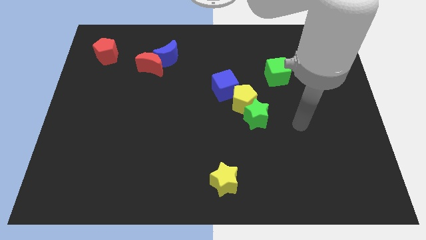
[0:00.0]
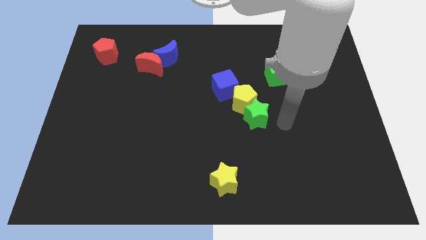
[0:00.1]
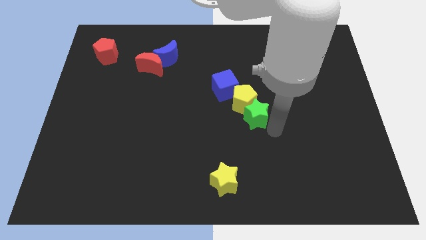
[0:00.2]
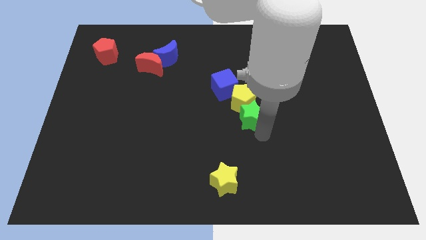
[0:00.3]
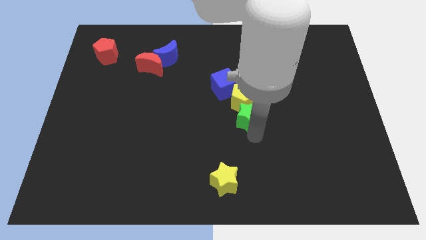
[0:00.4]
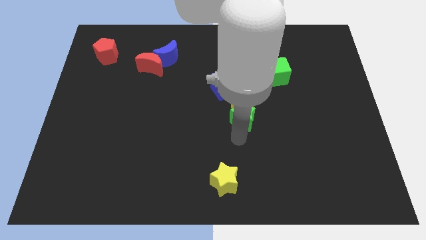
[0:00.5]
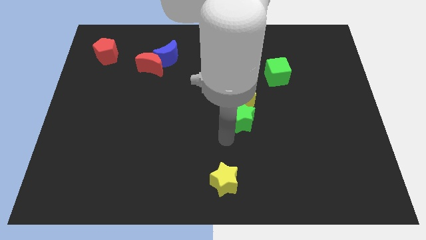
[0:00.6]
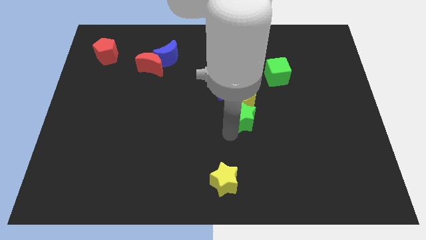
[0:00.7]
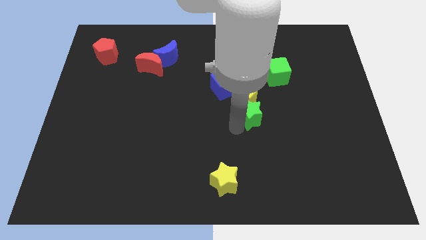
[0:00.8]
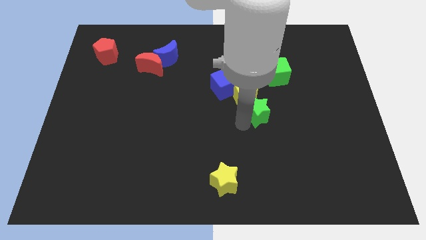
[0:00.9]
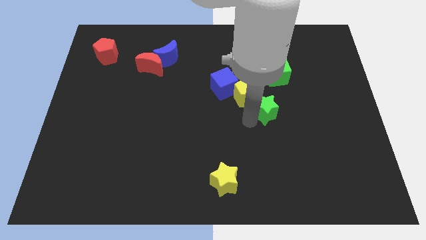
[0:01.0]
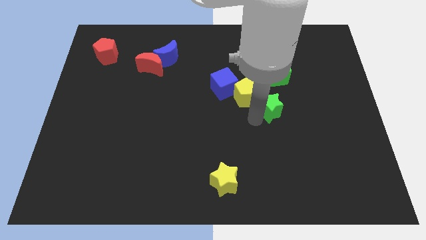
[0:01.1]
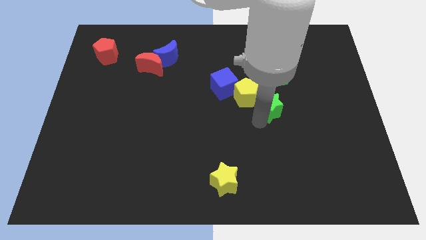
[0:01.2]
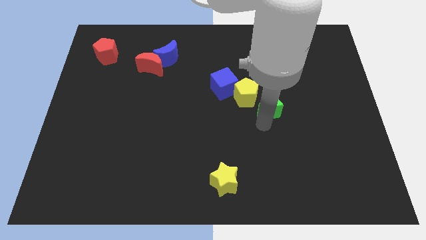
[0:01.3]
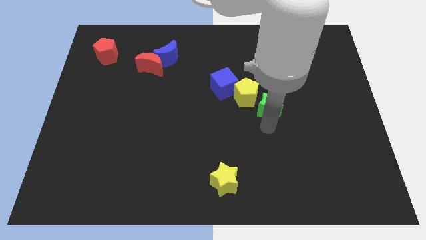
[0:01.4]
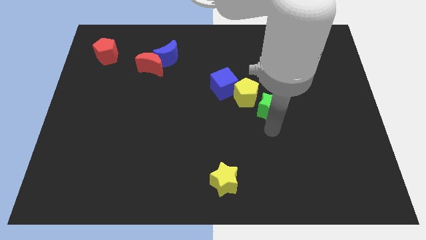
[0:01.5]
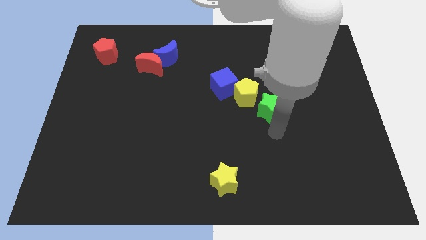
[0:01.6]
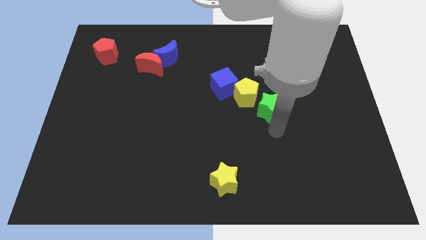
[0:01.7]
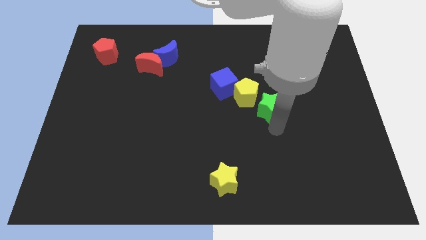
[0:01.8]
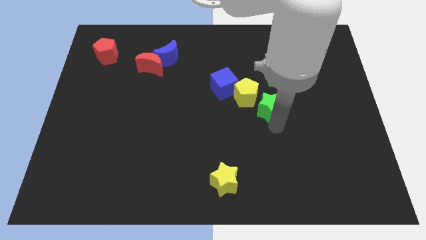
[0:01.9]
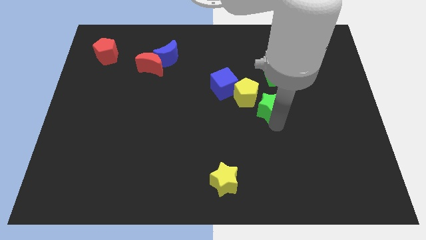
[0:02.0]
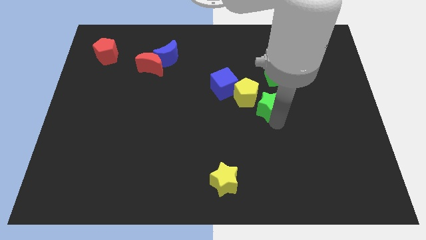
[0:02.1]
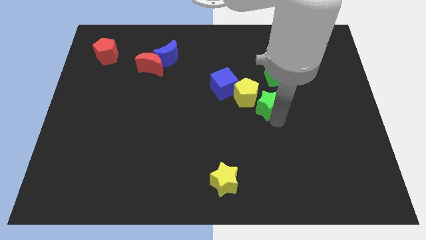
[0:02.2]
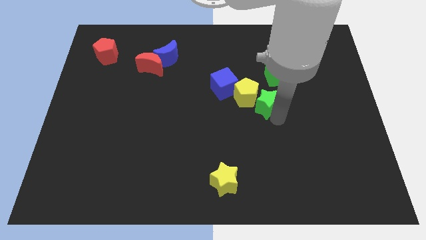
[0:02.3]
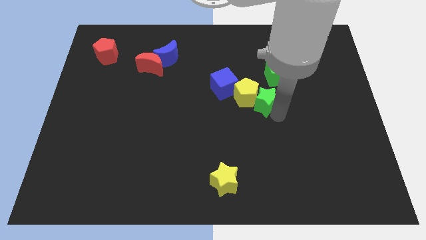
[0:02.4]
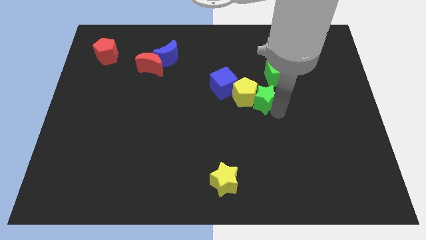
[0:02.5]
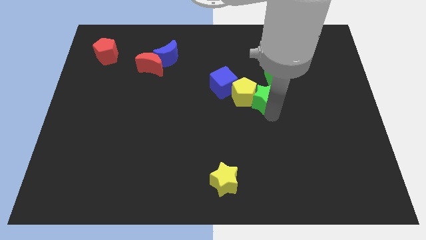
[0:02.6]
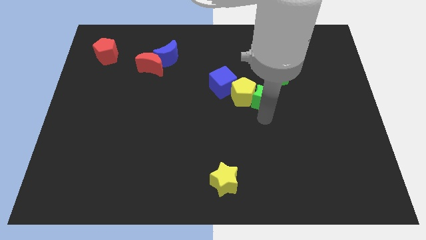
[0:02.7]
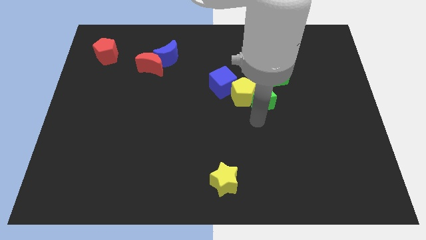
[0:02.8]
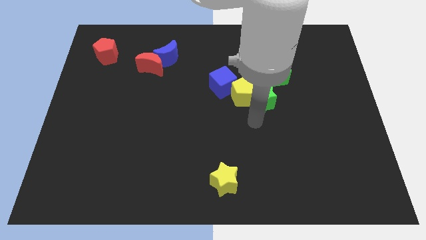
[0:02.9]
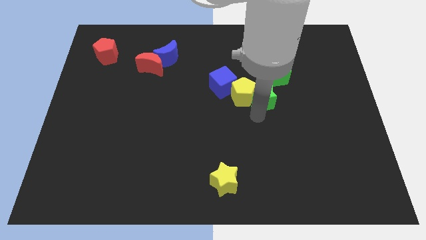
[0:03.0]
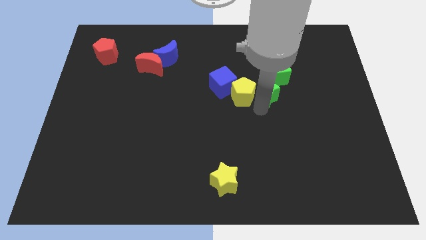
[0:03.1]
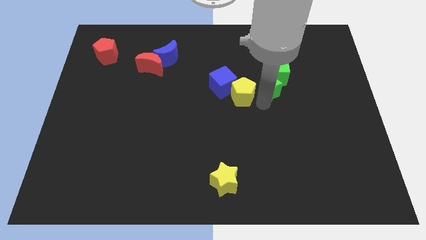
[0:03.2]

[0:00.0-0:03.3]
put the green star towards the green cube

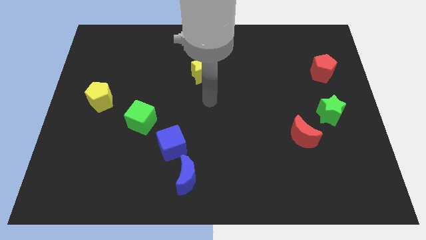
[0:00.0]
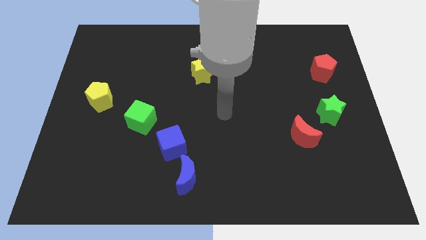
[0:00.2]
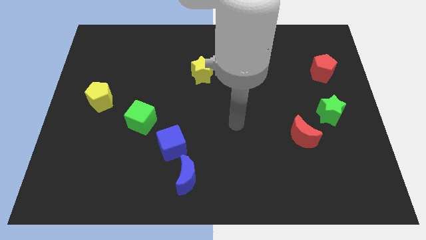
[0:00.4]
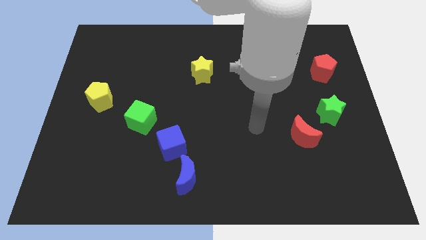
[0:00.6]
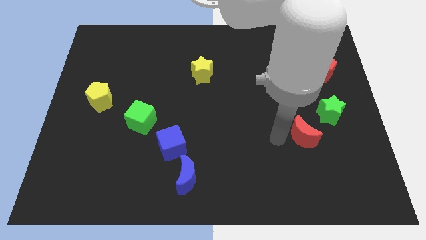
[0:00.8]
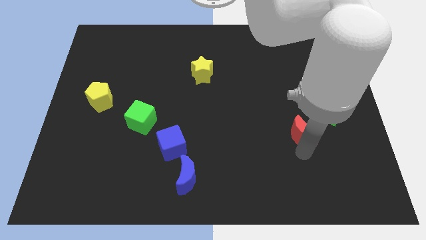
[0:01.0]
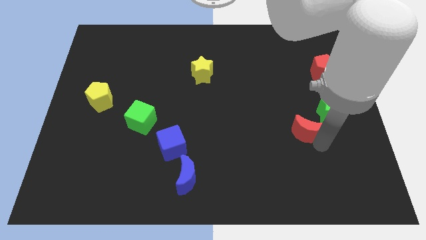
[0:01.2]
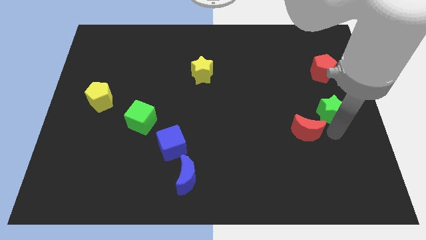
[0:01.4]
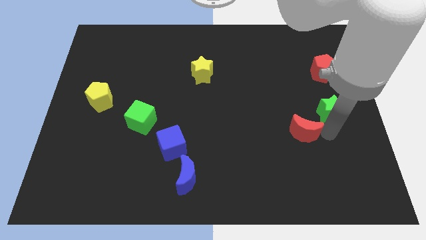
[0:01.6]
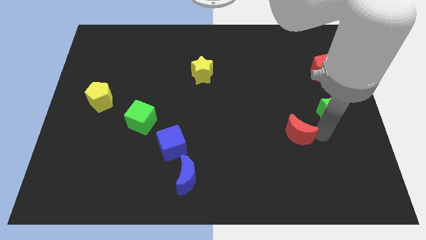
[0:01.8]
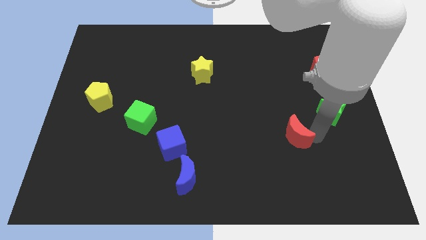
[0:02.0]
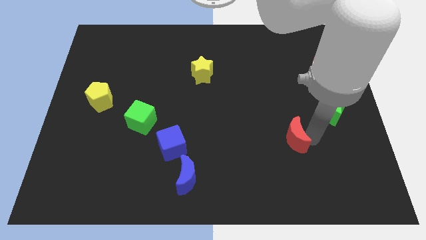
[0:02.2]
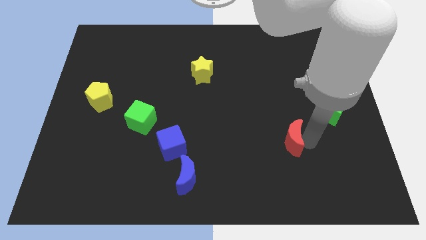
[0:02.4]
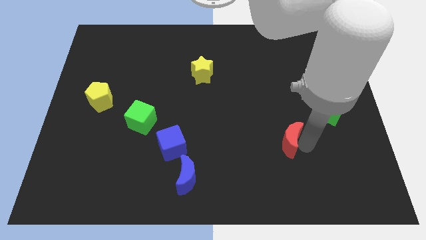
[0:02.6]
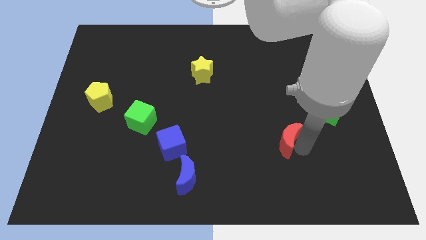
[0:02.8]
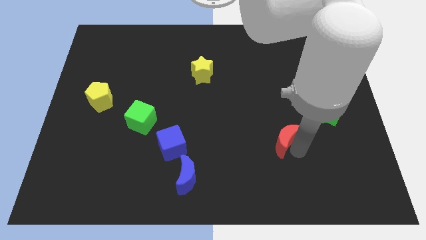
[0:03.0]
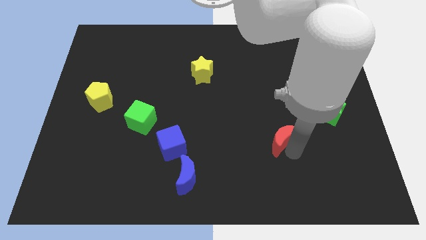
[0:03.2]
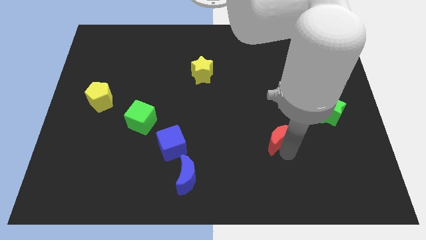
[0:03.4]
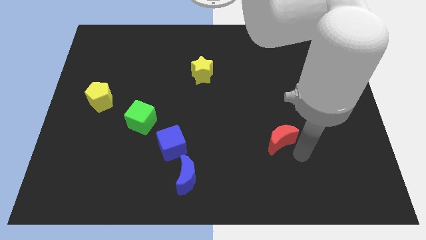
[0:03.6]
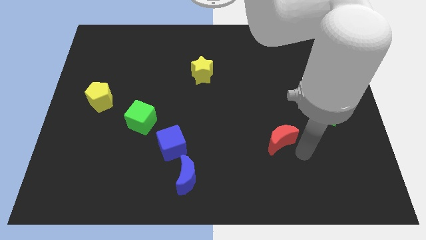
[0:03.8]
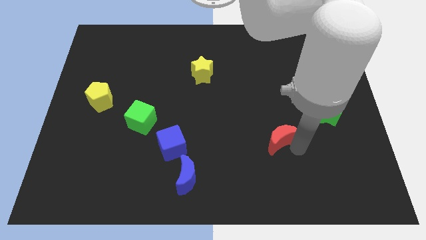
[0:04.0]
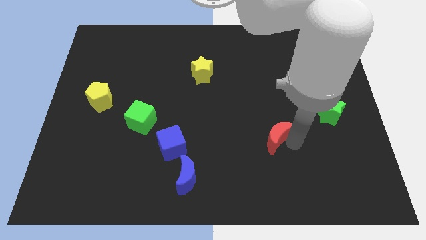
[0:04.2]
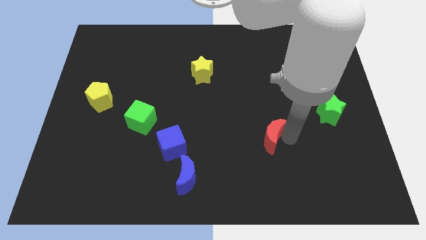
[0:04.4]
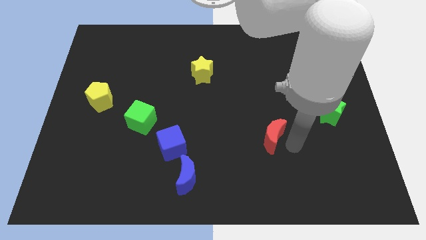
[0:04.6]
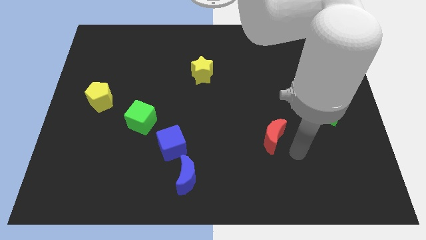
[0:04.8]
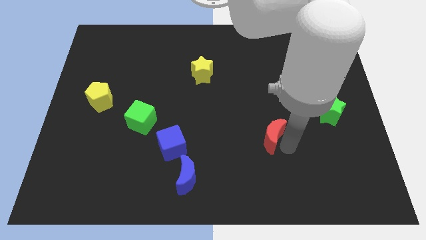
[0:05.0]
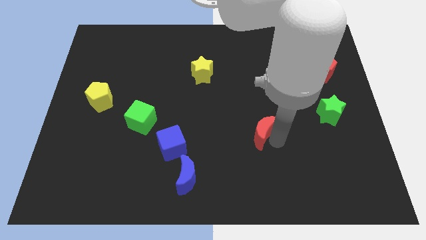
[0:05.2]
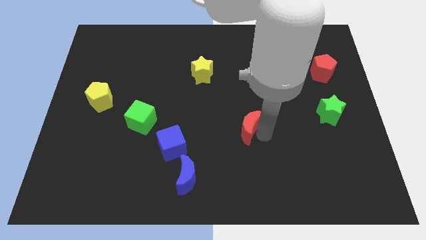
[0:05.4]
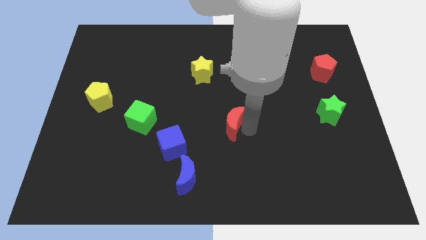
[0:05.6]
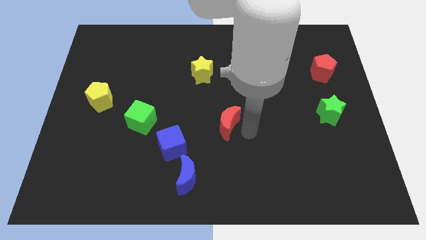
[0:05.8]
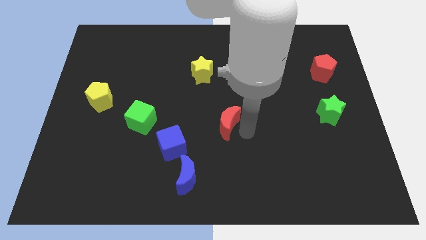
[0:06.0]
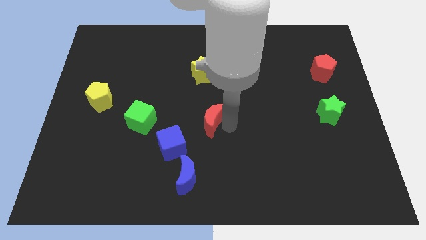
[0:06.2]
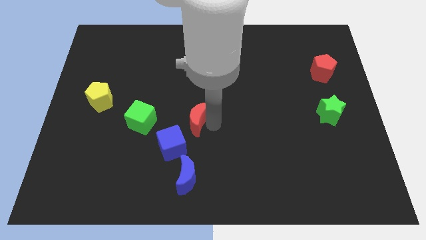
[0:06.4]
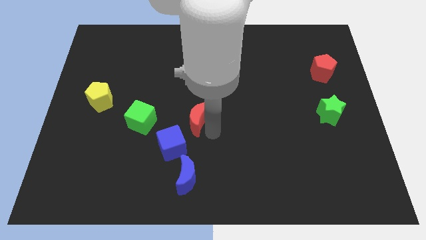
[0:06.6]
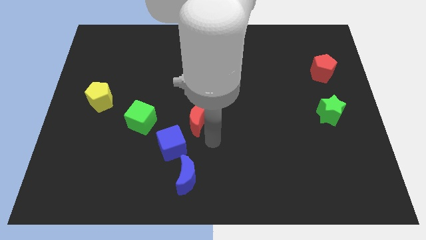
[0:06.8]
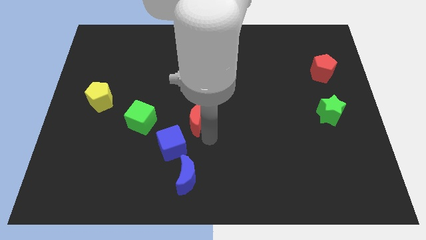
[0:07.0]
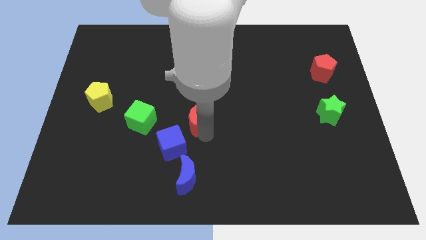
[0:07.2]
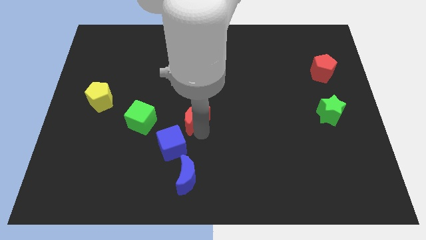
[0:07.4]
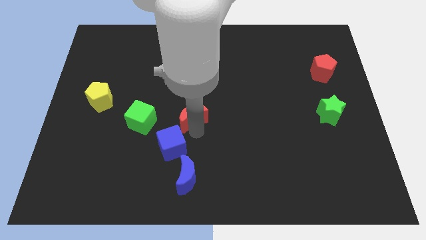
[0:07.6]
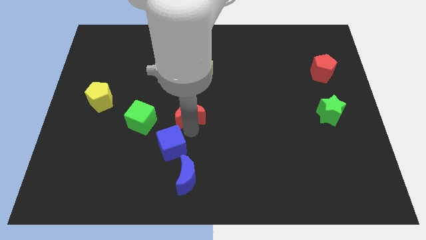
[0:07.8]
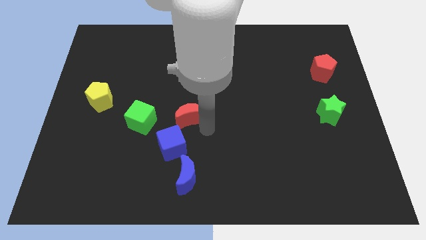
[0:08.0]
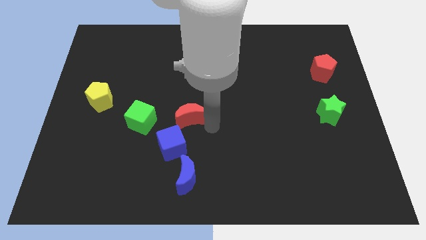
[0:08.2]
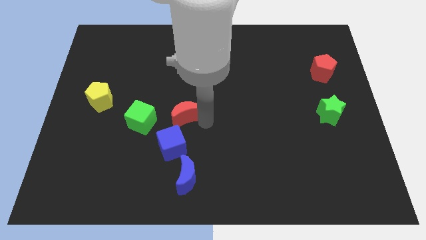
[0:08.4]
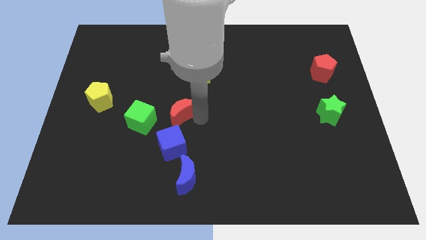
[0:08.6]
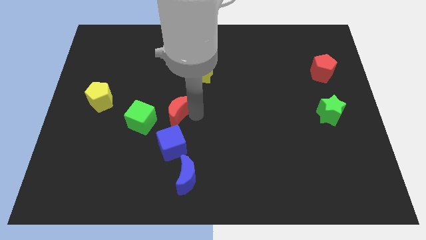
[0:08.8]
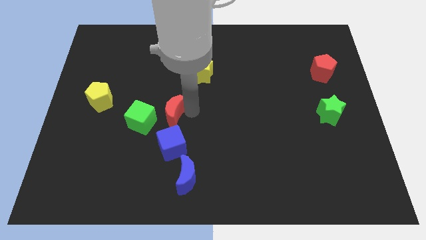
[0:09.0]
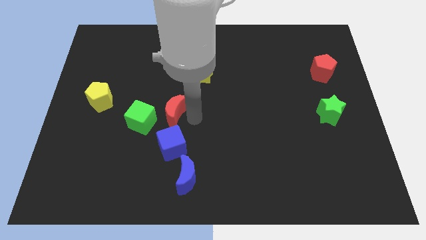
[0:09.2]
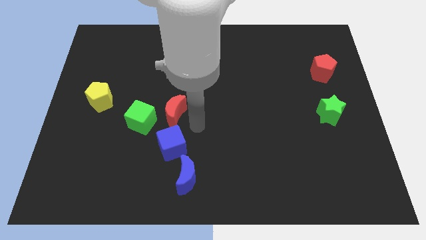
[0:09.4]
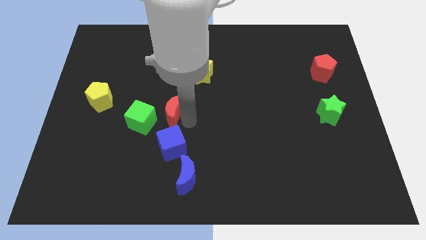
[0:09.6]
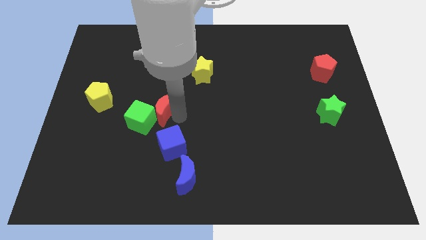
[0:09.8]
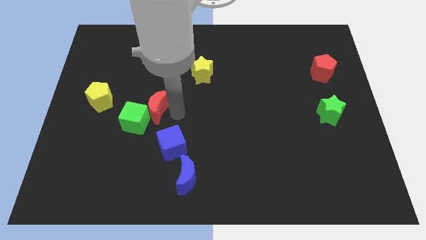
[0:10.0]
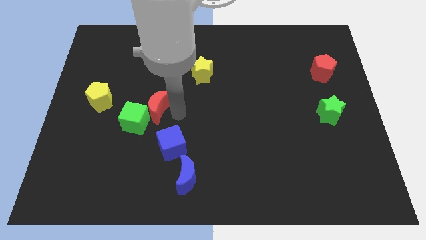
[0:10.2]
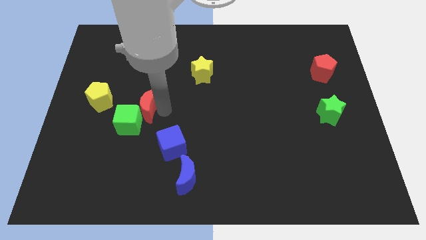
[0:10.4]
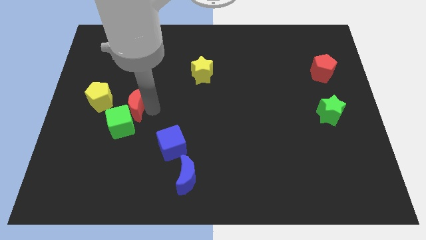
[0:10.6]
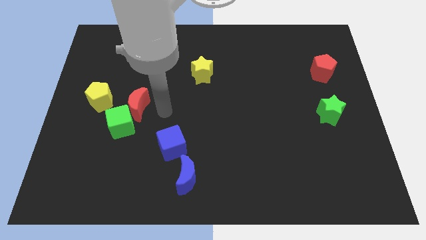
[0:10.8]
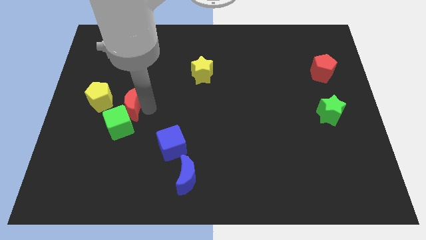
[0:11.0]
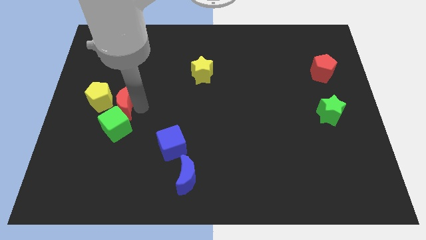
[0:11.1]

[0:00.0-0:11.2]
slide the red moon close to the yellow pentagon
